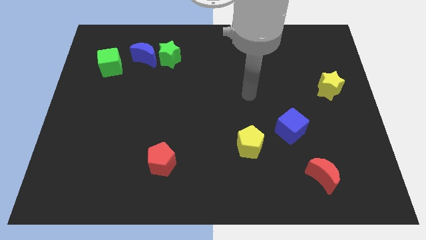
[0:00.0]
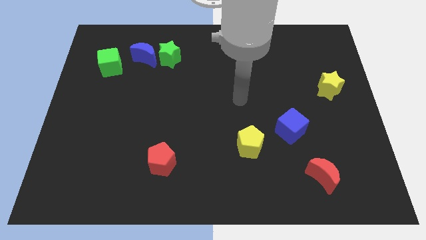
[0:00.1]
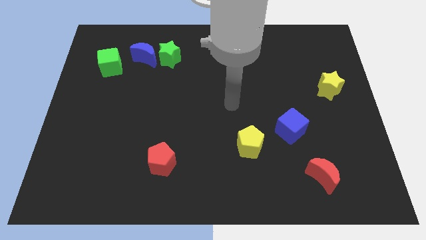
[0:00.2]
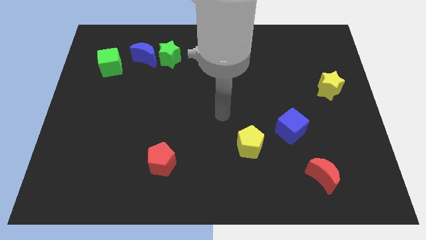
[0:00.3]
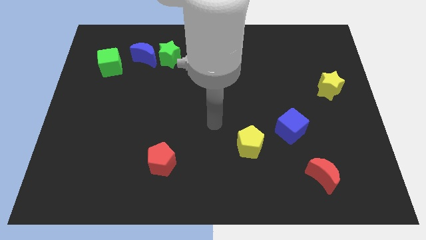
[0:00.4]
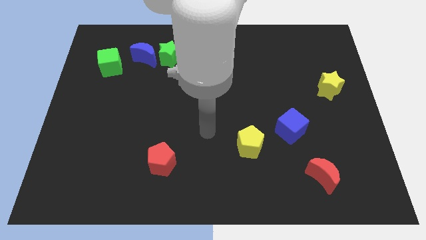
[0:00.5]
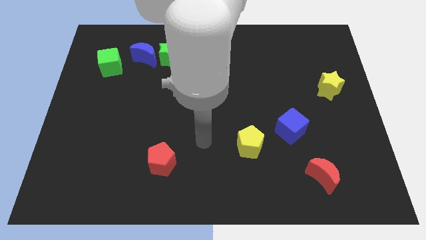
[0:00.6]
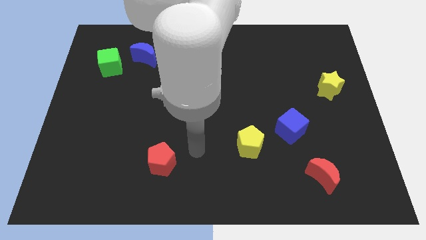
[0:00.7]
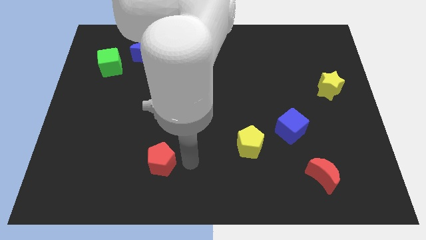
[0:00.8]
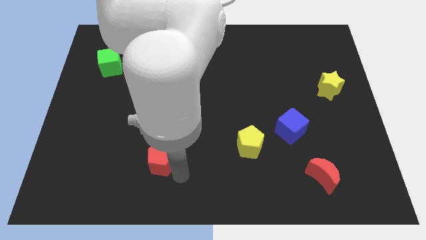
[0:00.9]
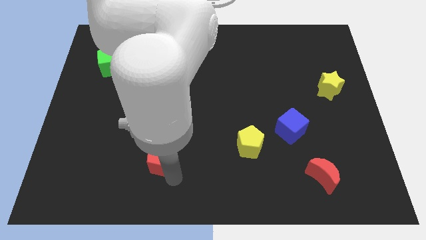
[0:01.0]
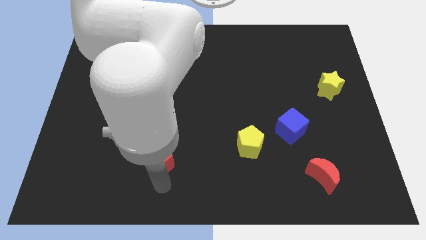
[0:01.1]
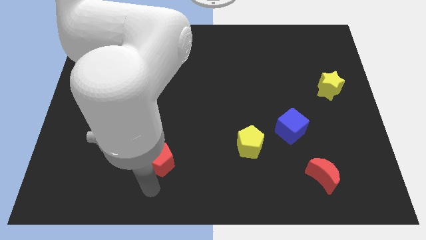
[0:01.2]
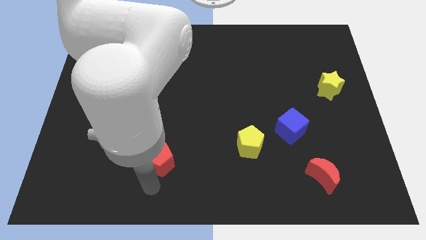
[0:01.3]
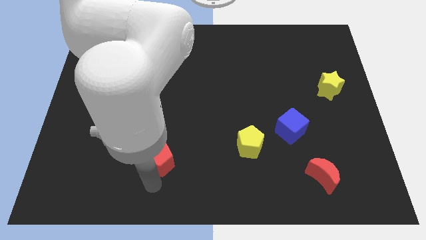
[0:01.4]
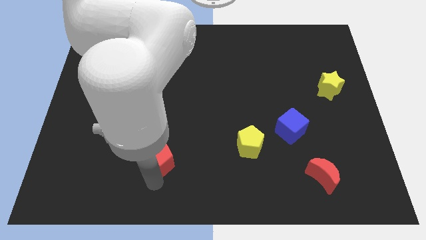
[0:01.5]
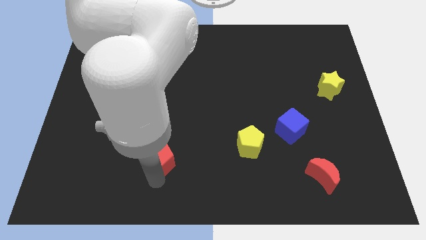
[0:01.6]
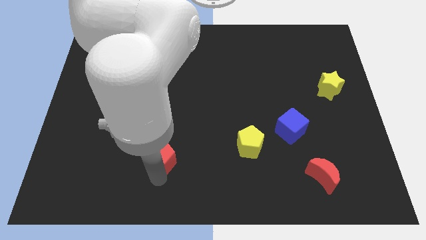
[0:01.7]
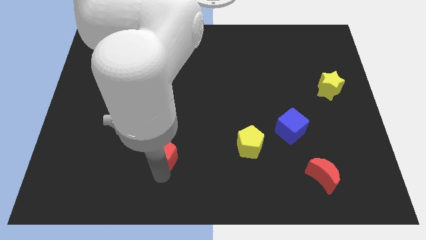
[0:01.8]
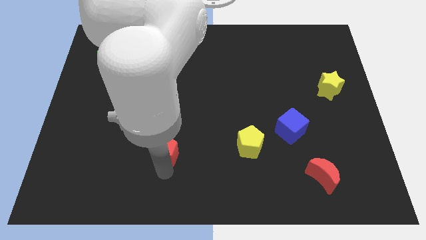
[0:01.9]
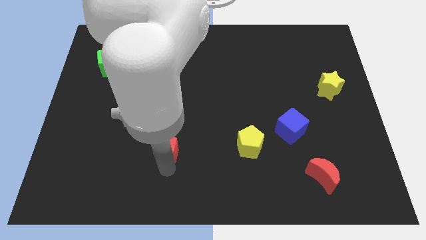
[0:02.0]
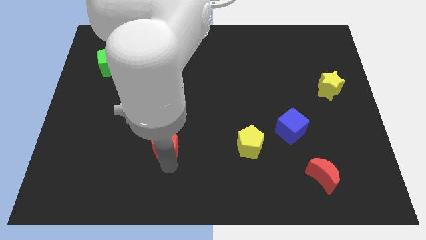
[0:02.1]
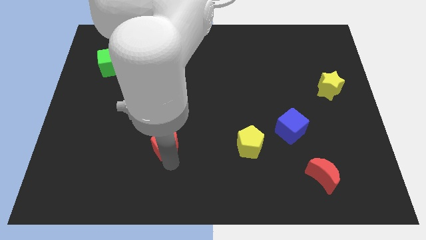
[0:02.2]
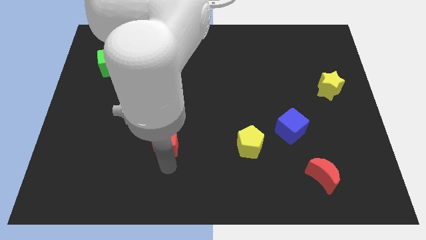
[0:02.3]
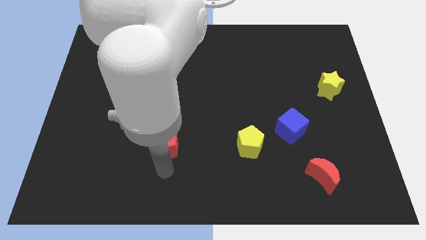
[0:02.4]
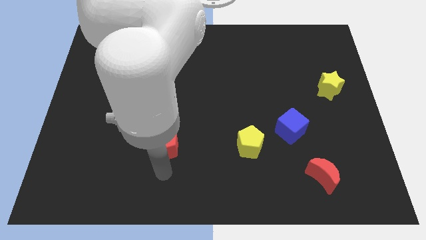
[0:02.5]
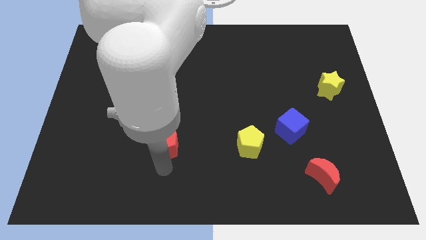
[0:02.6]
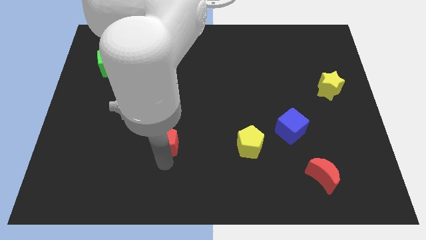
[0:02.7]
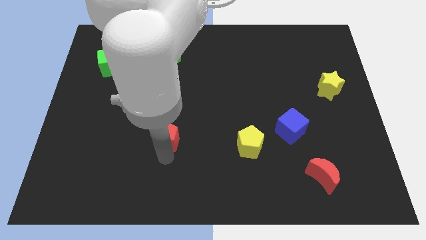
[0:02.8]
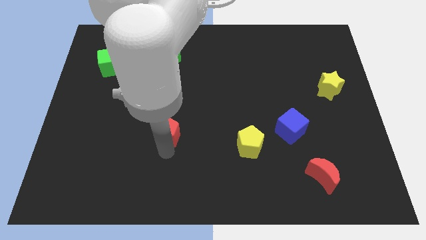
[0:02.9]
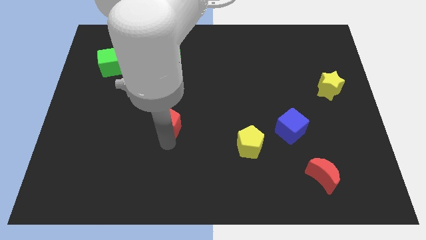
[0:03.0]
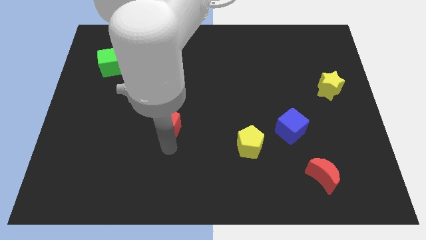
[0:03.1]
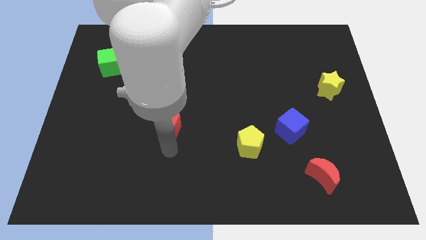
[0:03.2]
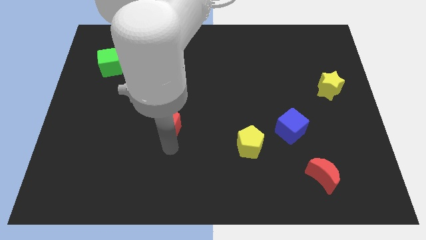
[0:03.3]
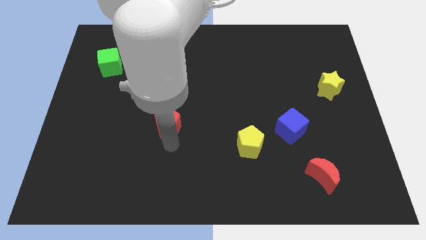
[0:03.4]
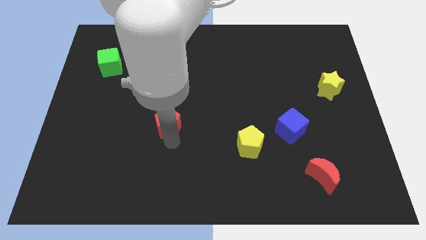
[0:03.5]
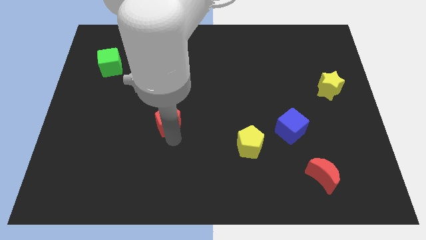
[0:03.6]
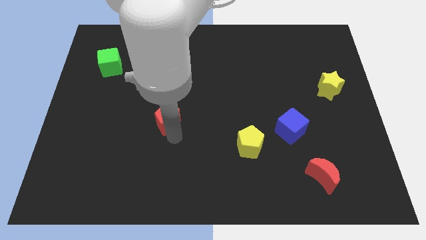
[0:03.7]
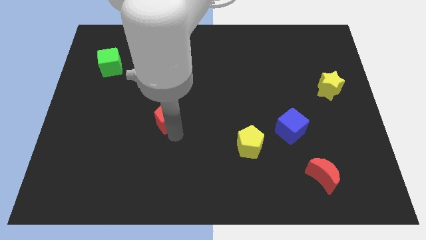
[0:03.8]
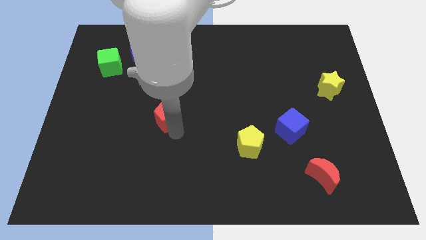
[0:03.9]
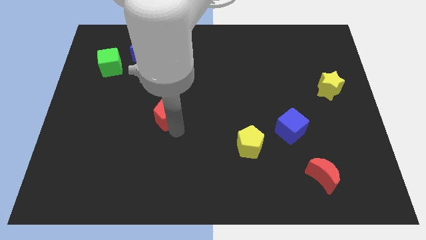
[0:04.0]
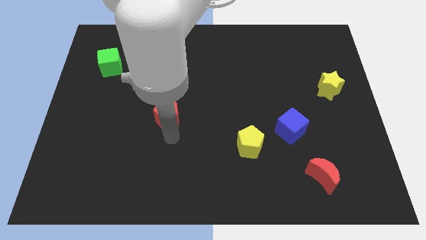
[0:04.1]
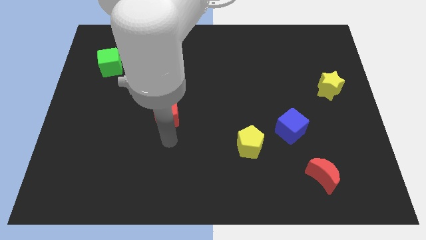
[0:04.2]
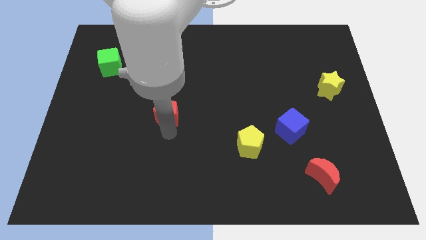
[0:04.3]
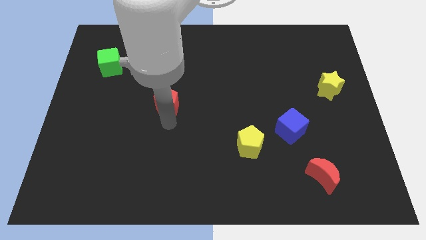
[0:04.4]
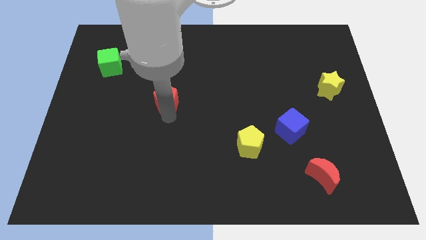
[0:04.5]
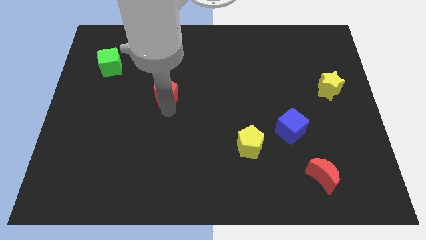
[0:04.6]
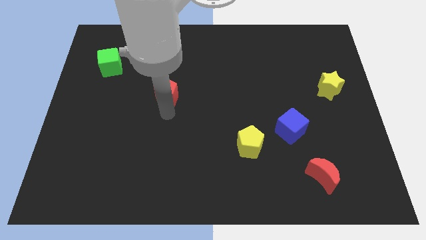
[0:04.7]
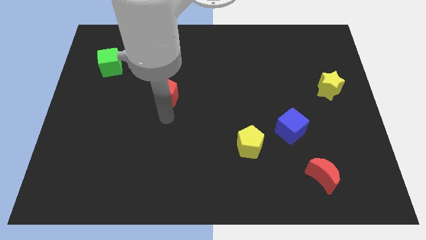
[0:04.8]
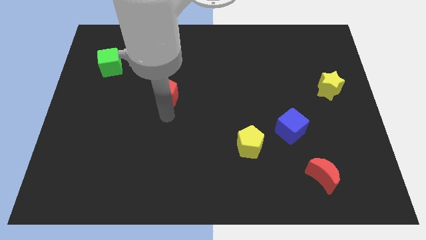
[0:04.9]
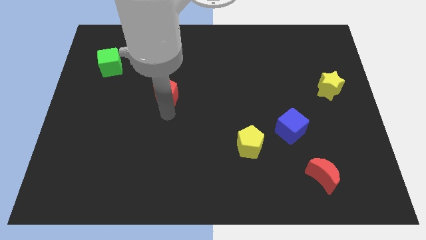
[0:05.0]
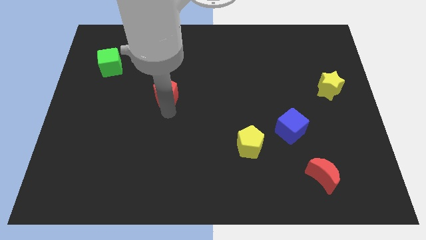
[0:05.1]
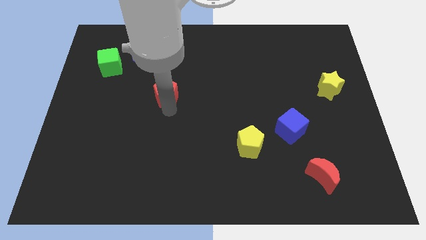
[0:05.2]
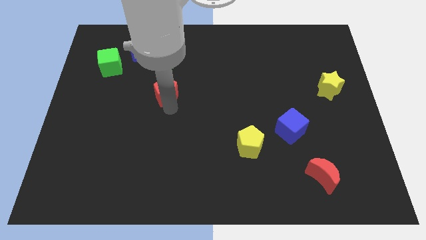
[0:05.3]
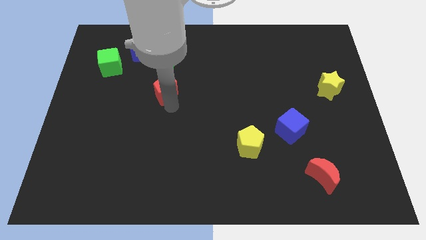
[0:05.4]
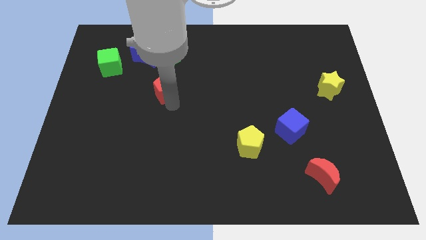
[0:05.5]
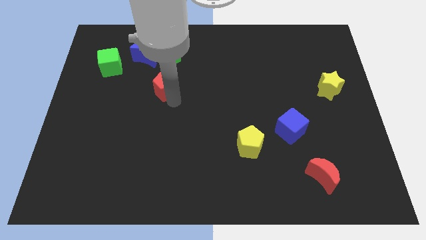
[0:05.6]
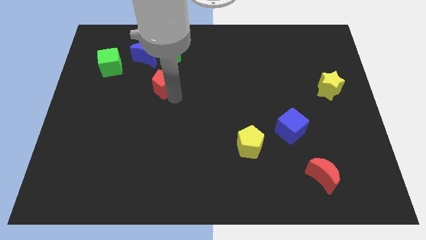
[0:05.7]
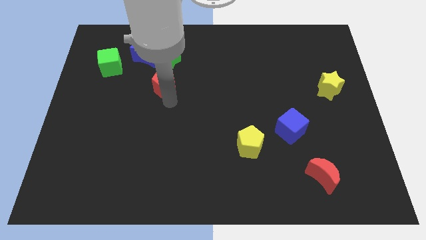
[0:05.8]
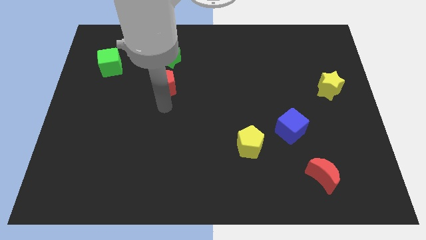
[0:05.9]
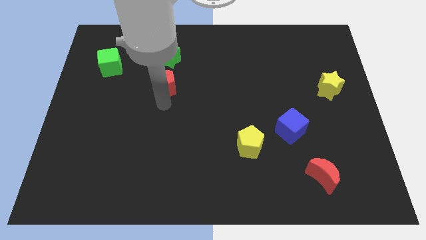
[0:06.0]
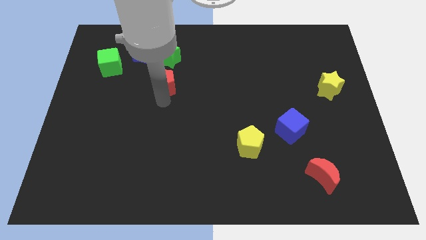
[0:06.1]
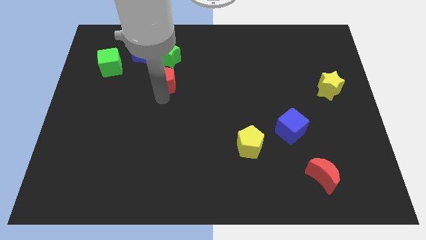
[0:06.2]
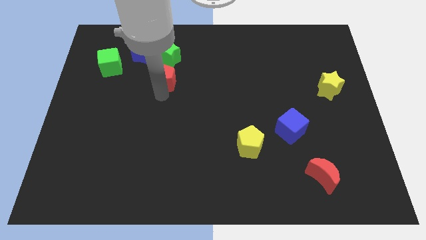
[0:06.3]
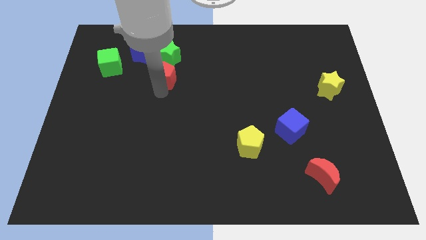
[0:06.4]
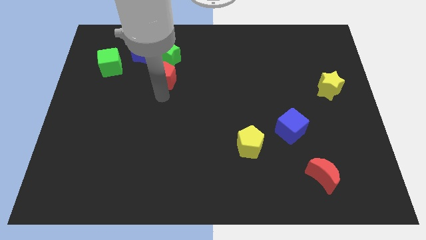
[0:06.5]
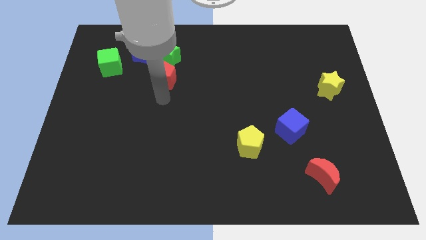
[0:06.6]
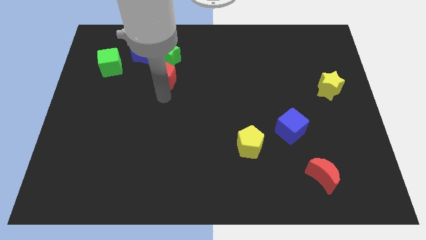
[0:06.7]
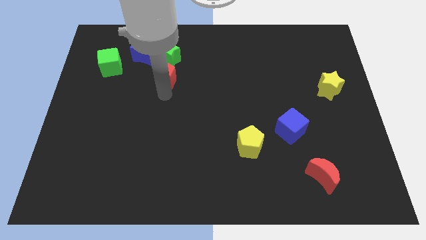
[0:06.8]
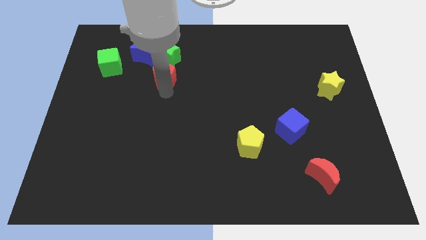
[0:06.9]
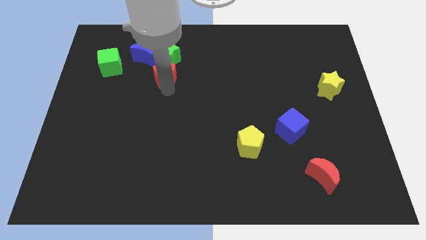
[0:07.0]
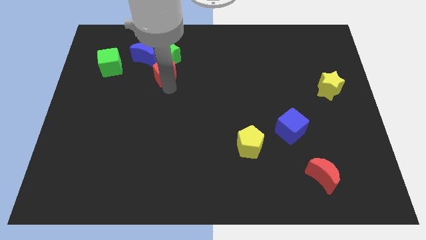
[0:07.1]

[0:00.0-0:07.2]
push the red pentagon to the green star
